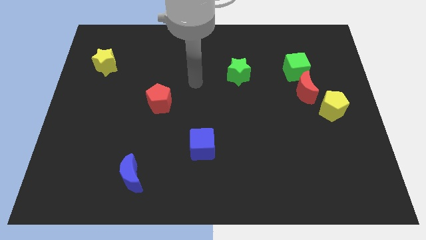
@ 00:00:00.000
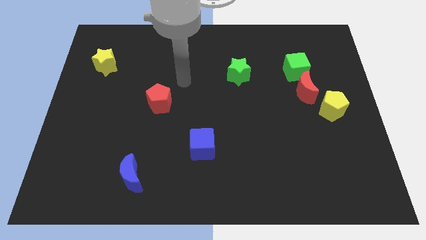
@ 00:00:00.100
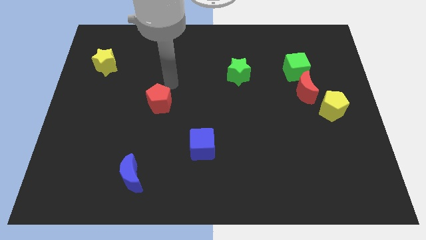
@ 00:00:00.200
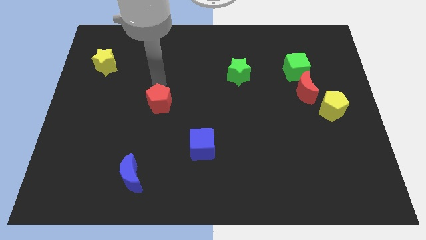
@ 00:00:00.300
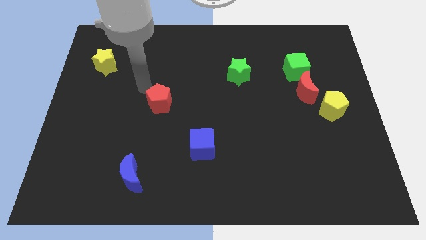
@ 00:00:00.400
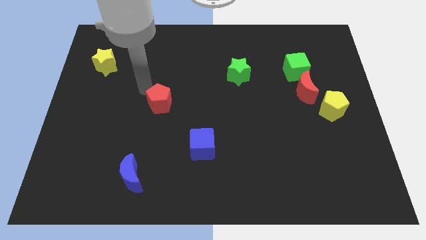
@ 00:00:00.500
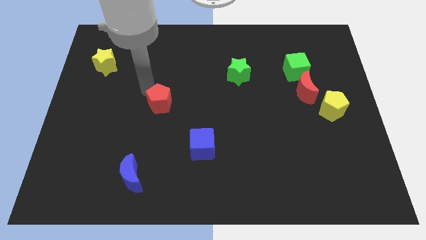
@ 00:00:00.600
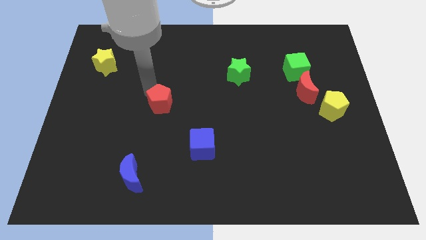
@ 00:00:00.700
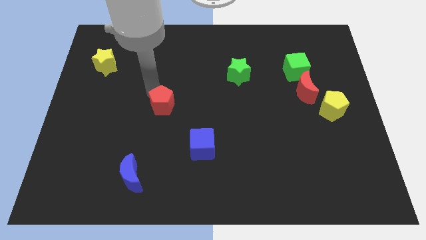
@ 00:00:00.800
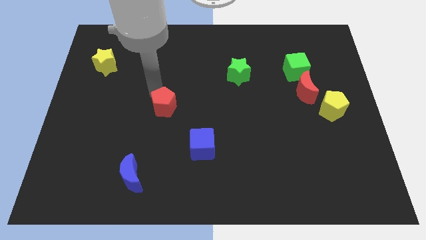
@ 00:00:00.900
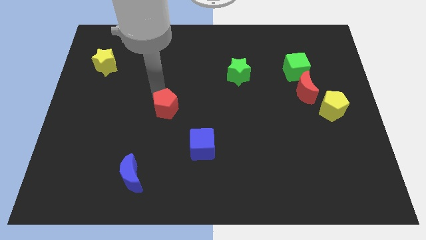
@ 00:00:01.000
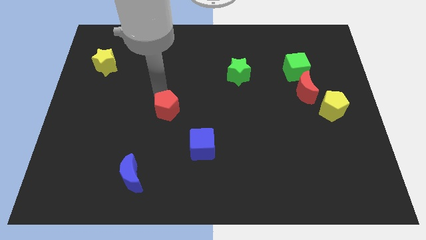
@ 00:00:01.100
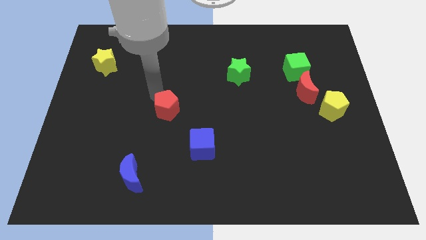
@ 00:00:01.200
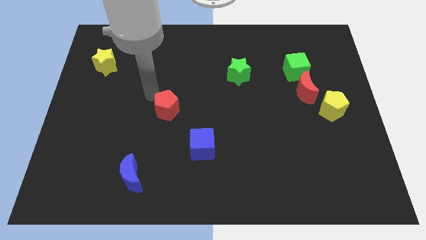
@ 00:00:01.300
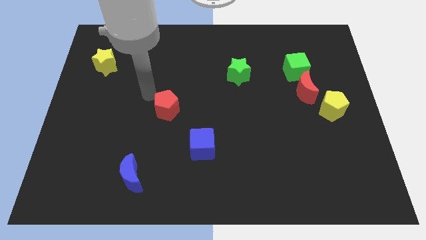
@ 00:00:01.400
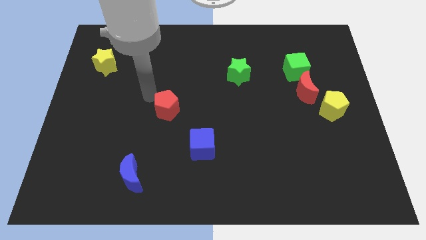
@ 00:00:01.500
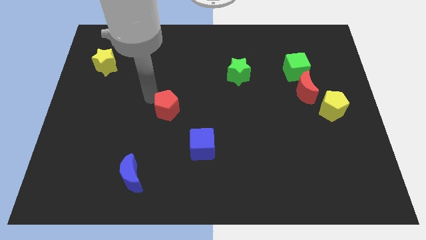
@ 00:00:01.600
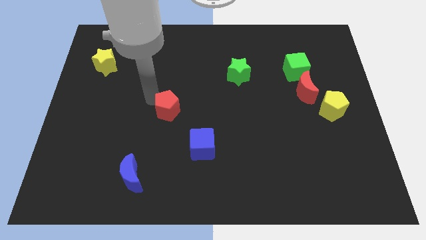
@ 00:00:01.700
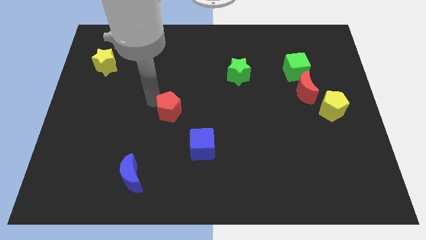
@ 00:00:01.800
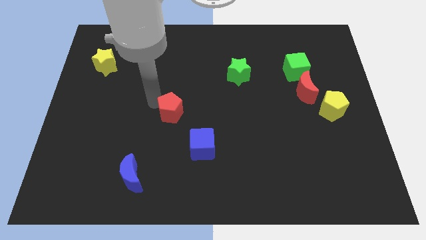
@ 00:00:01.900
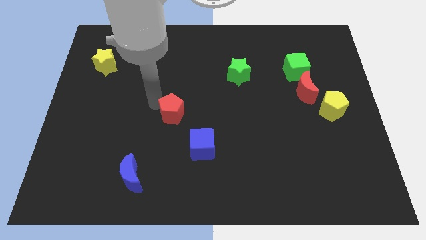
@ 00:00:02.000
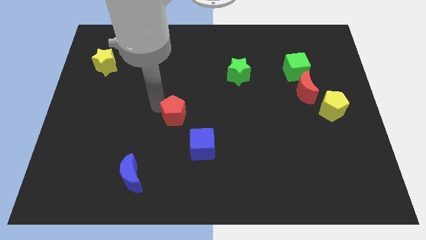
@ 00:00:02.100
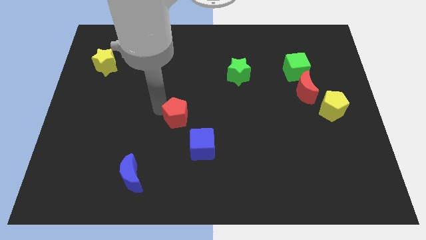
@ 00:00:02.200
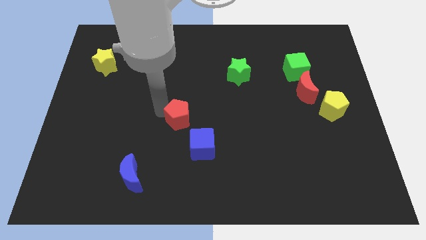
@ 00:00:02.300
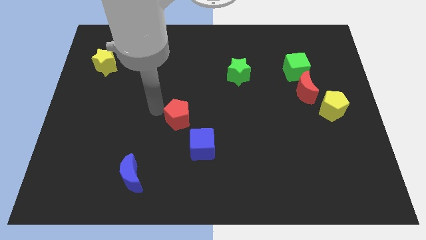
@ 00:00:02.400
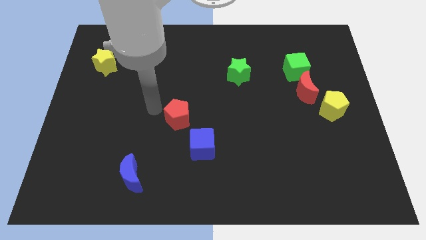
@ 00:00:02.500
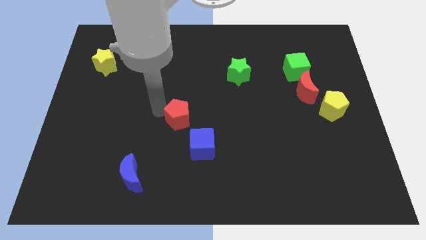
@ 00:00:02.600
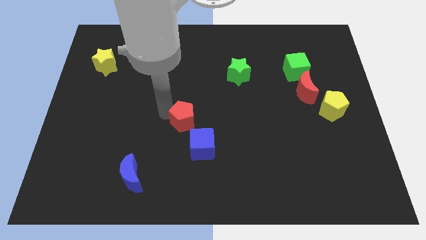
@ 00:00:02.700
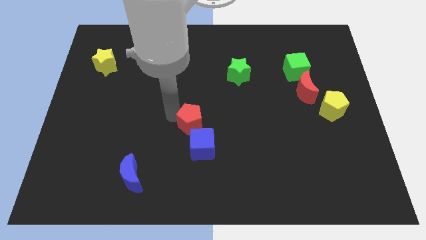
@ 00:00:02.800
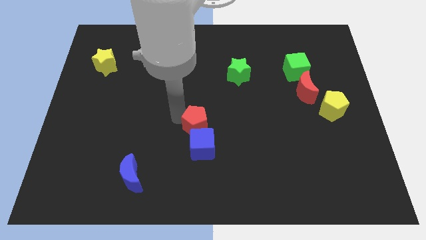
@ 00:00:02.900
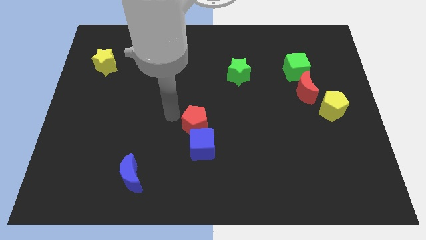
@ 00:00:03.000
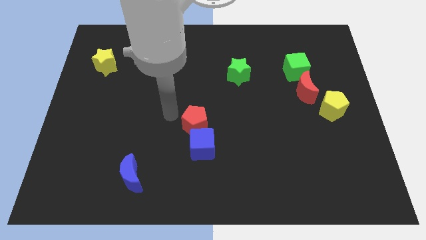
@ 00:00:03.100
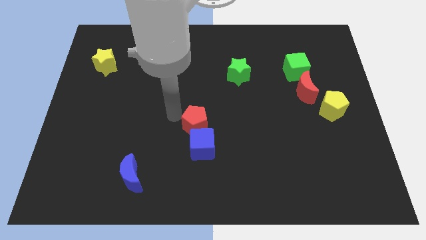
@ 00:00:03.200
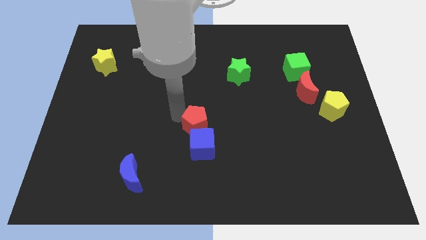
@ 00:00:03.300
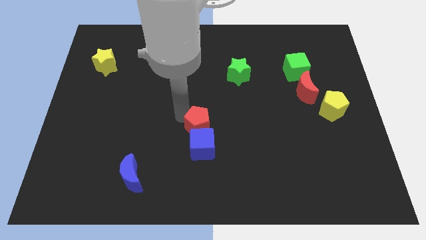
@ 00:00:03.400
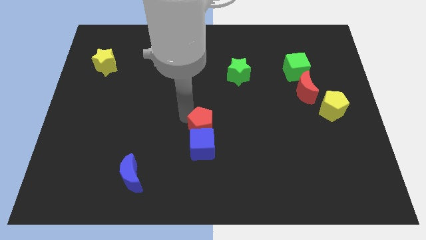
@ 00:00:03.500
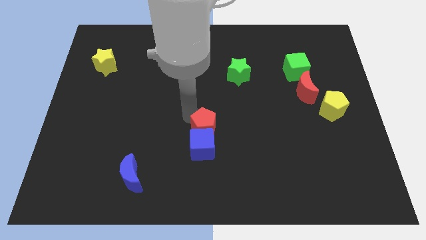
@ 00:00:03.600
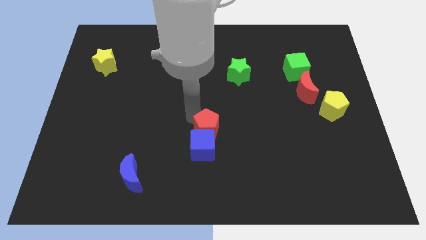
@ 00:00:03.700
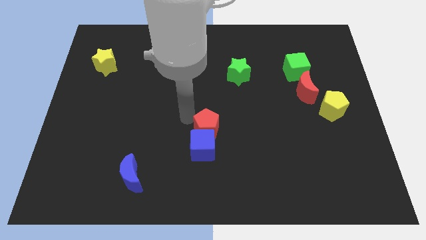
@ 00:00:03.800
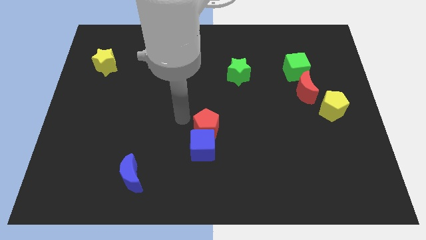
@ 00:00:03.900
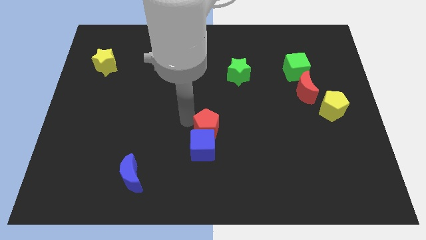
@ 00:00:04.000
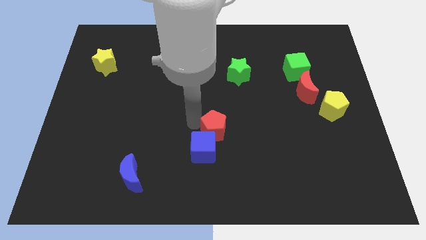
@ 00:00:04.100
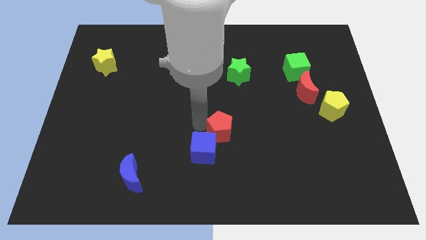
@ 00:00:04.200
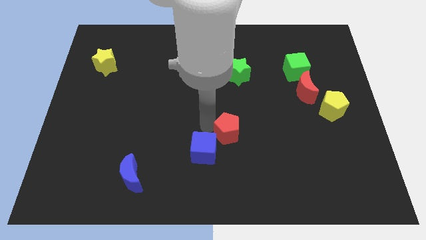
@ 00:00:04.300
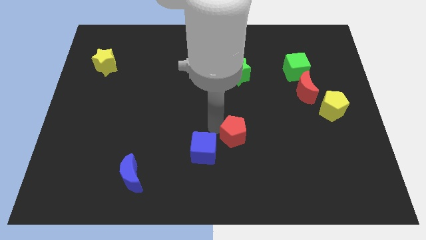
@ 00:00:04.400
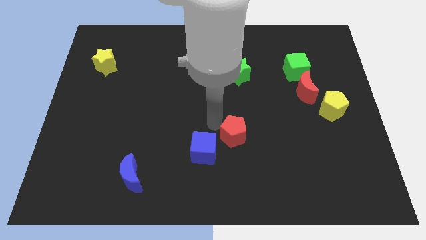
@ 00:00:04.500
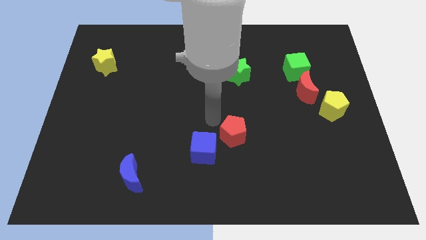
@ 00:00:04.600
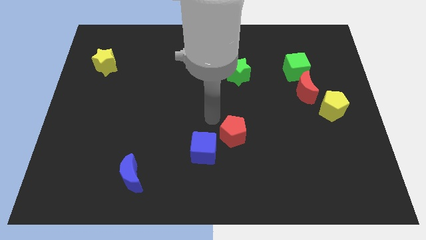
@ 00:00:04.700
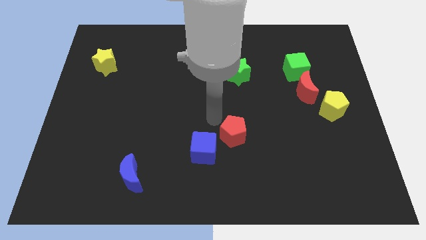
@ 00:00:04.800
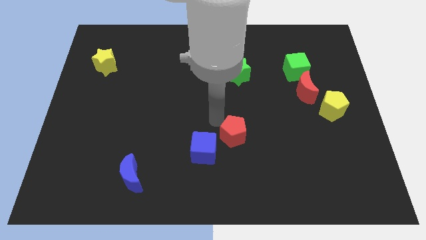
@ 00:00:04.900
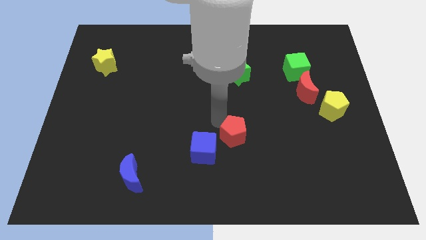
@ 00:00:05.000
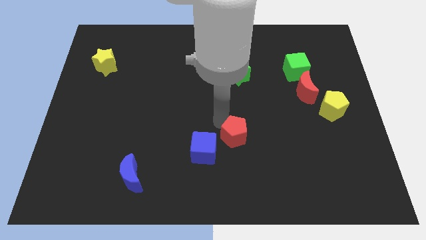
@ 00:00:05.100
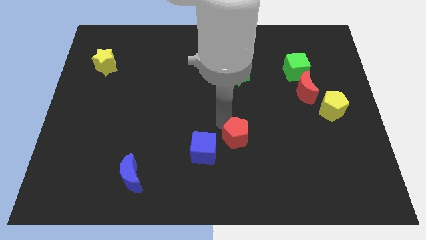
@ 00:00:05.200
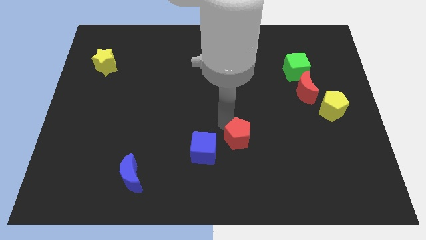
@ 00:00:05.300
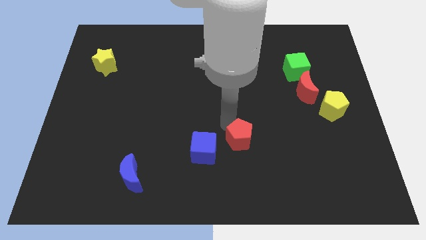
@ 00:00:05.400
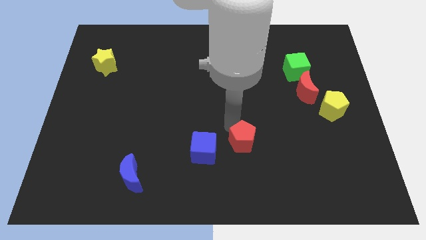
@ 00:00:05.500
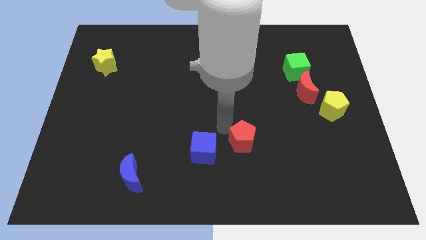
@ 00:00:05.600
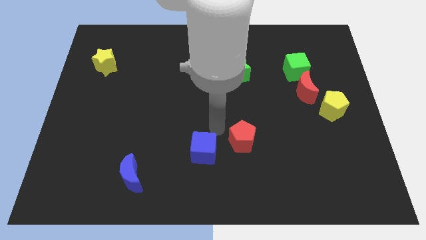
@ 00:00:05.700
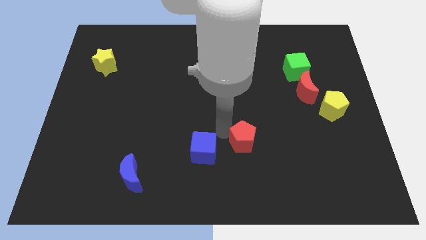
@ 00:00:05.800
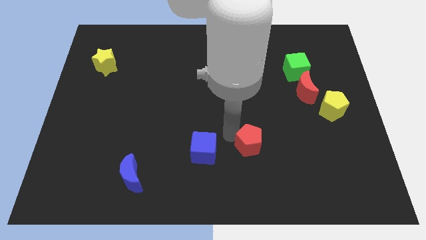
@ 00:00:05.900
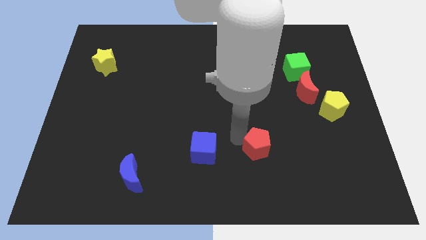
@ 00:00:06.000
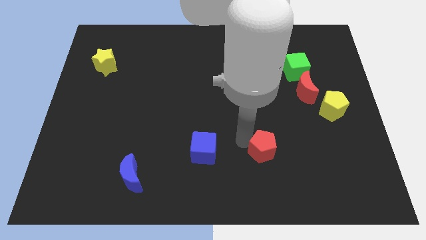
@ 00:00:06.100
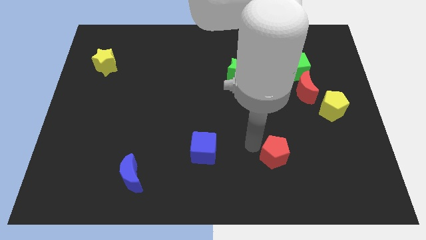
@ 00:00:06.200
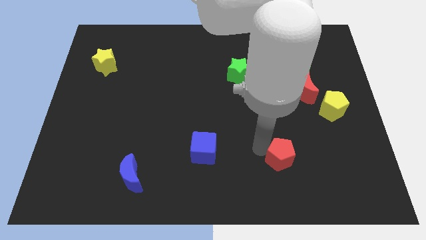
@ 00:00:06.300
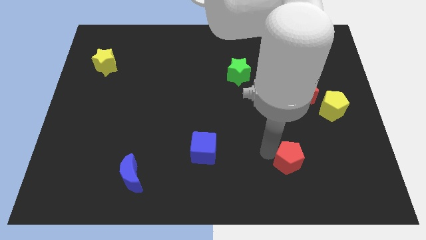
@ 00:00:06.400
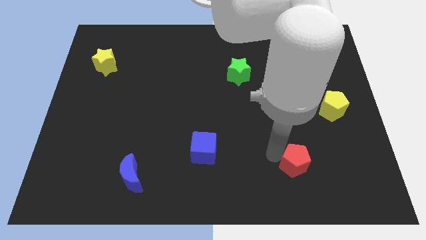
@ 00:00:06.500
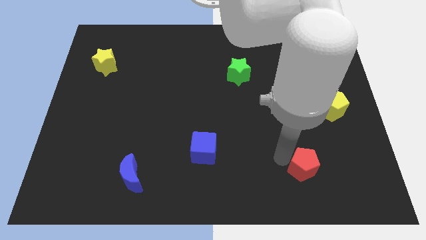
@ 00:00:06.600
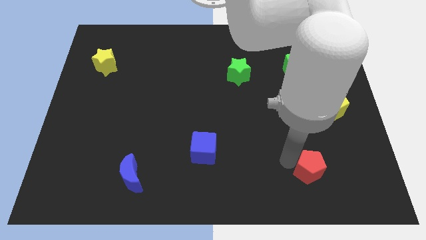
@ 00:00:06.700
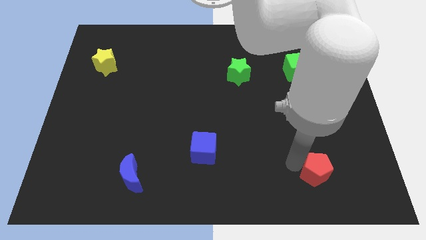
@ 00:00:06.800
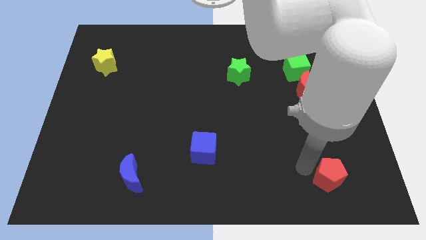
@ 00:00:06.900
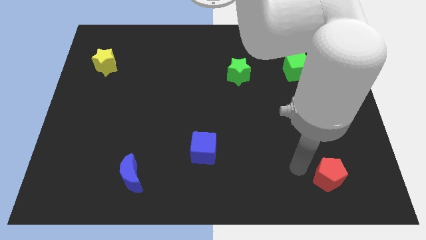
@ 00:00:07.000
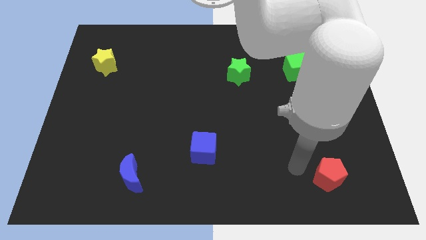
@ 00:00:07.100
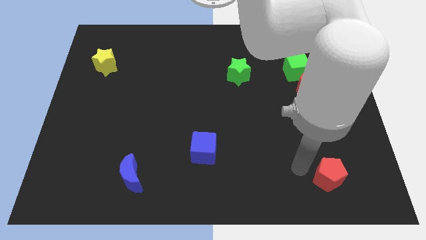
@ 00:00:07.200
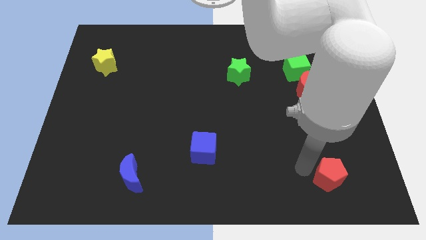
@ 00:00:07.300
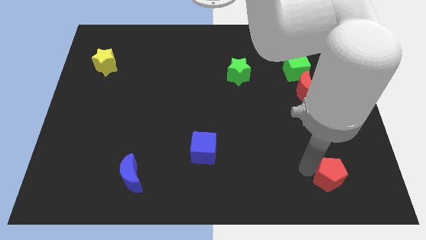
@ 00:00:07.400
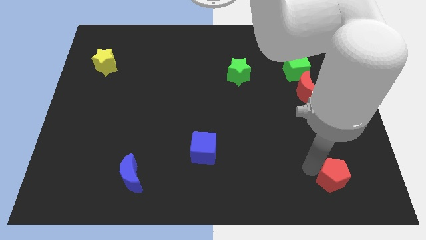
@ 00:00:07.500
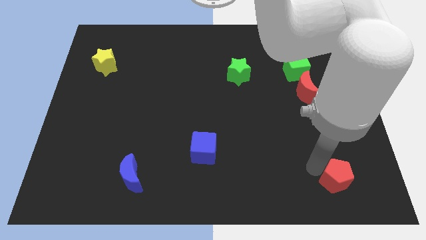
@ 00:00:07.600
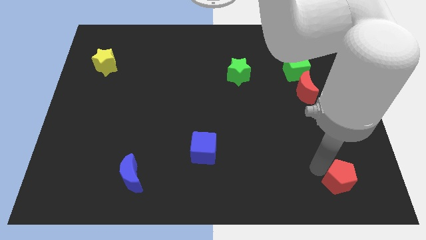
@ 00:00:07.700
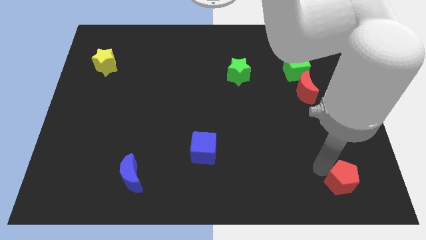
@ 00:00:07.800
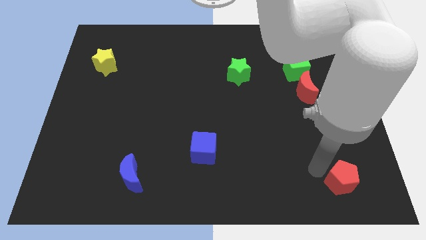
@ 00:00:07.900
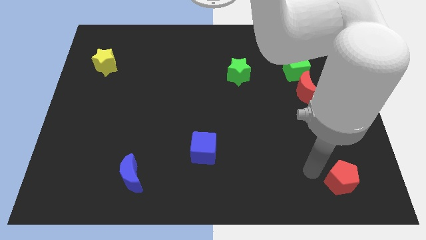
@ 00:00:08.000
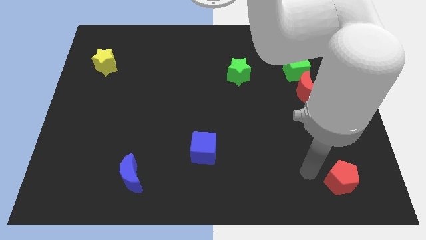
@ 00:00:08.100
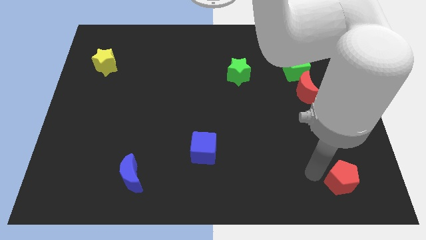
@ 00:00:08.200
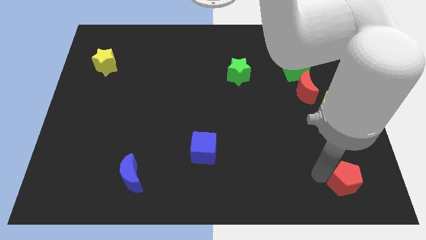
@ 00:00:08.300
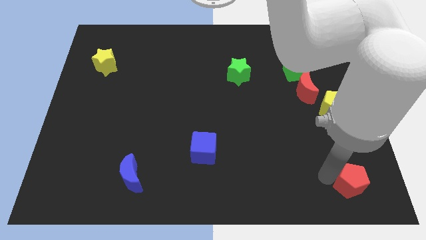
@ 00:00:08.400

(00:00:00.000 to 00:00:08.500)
push the red pentagon to the bottom right
